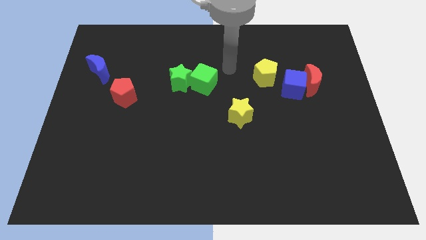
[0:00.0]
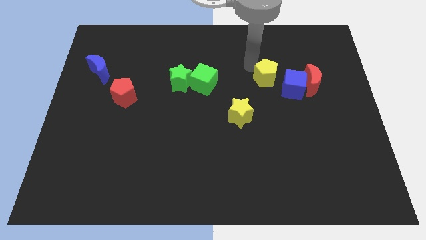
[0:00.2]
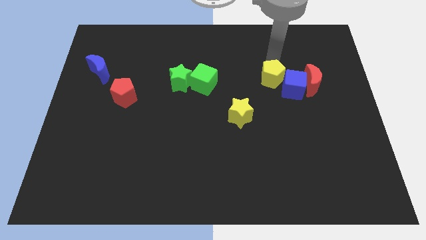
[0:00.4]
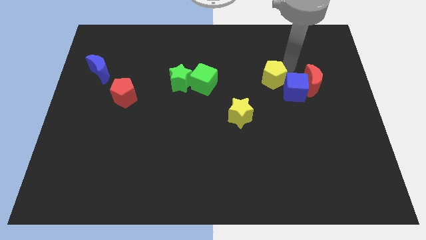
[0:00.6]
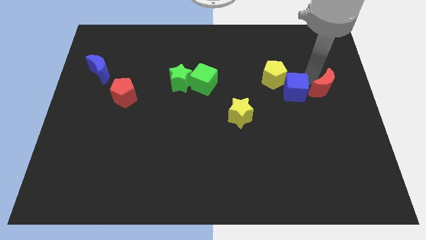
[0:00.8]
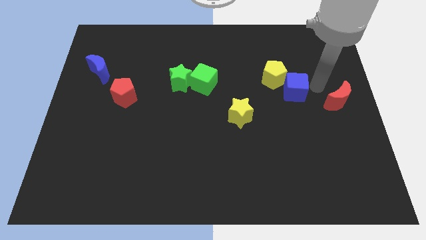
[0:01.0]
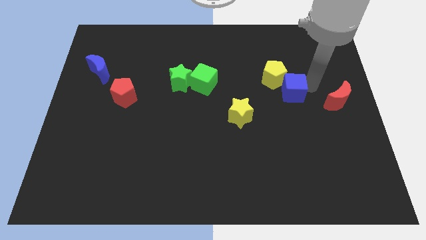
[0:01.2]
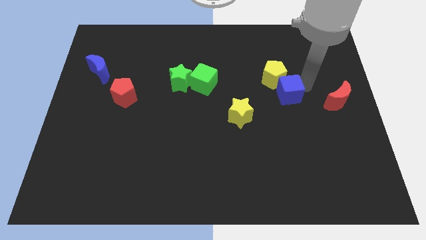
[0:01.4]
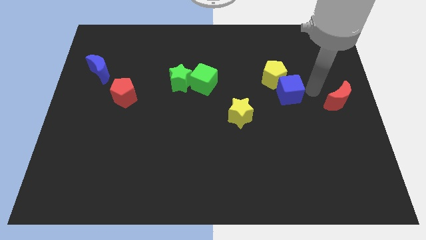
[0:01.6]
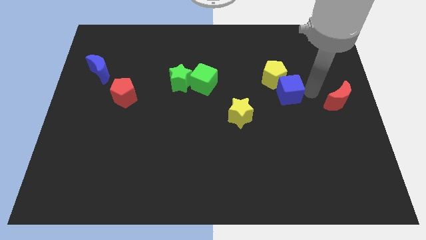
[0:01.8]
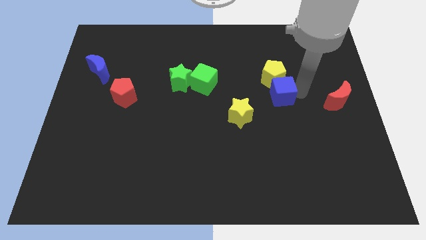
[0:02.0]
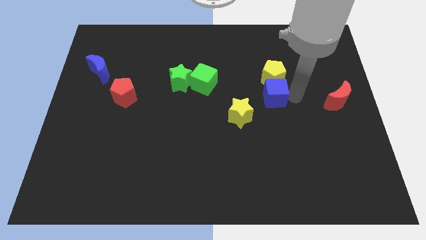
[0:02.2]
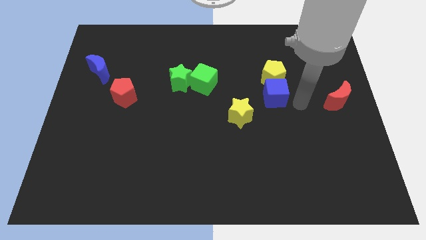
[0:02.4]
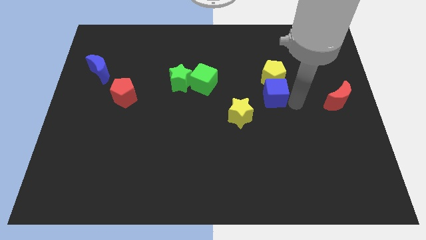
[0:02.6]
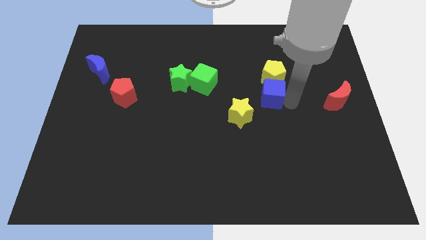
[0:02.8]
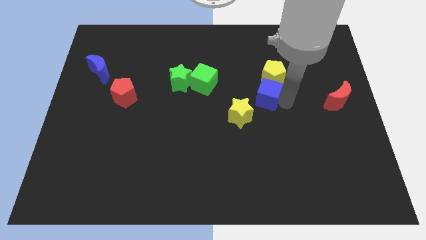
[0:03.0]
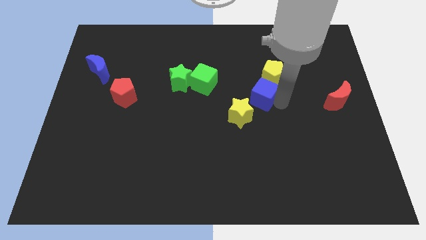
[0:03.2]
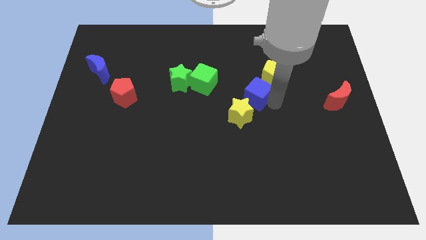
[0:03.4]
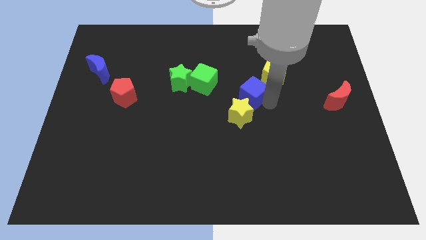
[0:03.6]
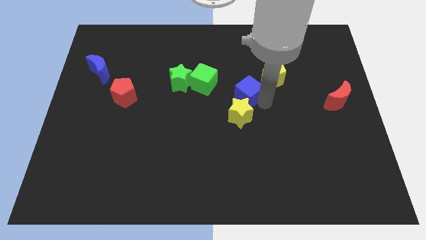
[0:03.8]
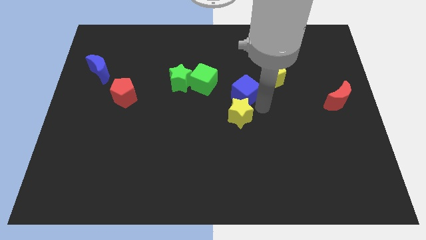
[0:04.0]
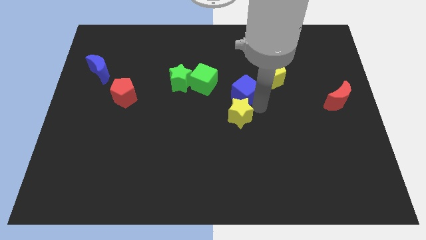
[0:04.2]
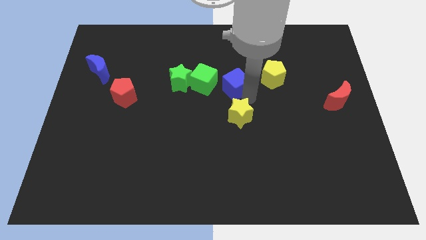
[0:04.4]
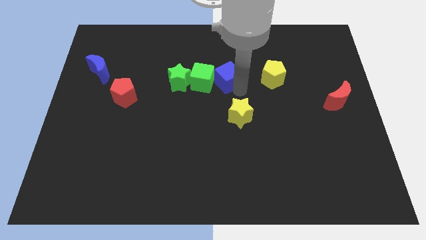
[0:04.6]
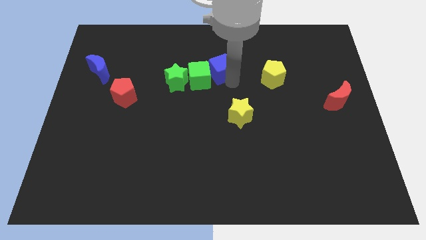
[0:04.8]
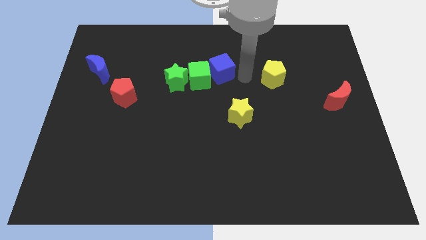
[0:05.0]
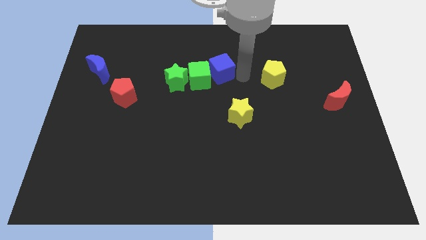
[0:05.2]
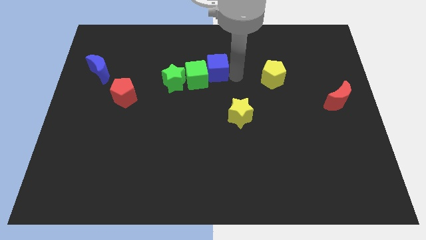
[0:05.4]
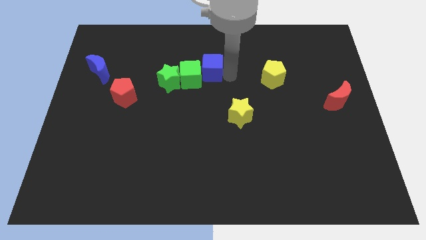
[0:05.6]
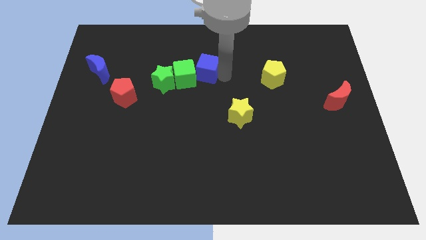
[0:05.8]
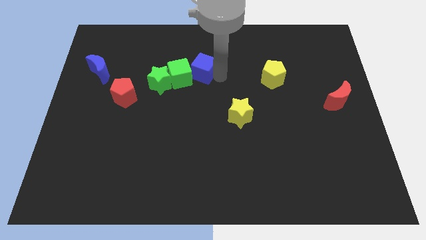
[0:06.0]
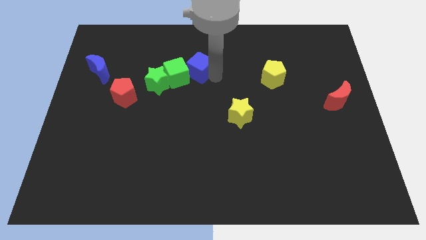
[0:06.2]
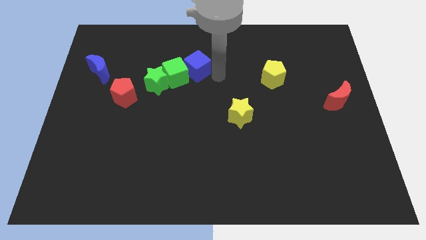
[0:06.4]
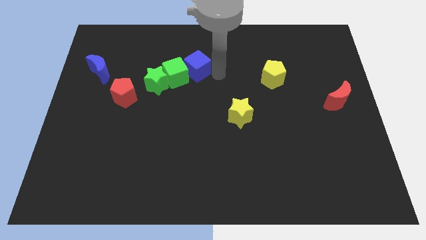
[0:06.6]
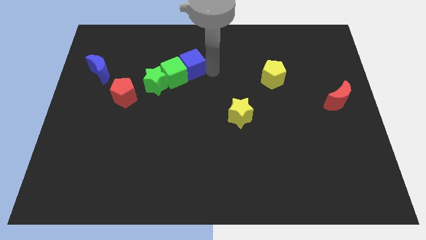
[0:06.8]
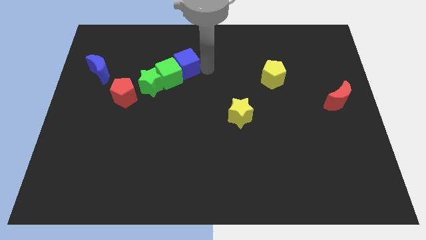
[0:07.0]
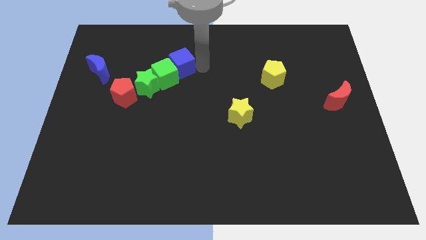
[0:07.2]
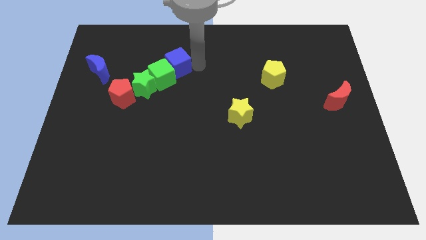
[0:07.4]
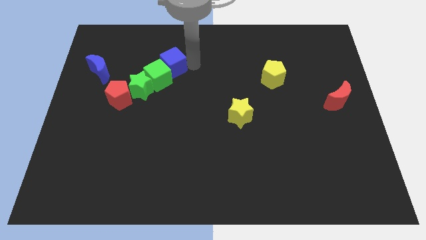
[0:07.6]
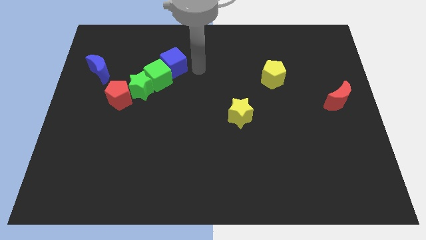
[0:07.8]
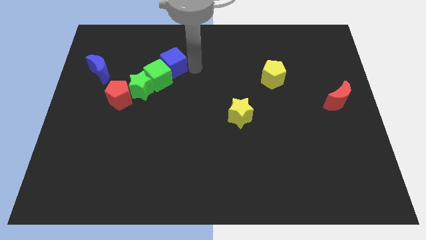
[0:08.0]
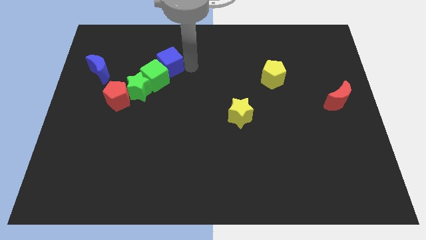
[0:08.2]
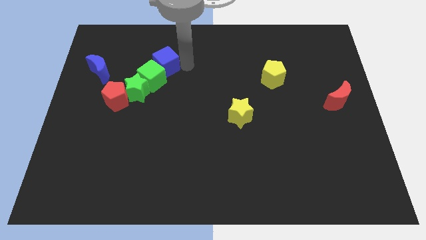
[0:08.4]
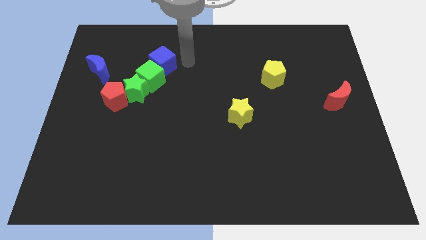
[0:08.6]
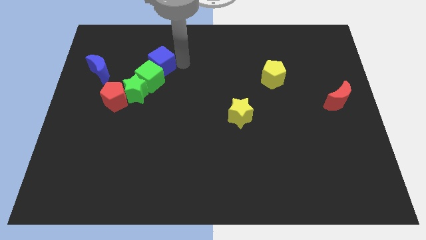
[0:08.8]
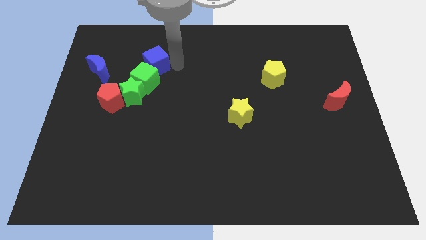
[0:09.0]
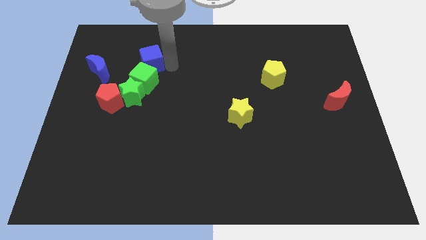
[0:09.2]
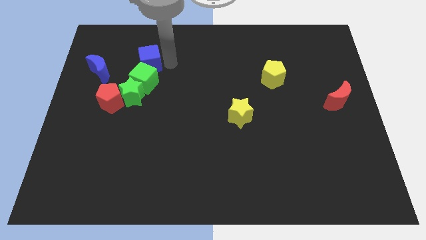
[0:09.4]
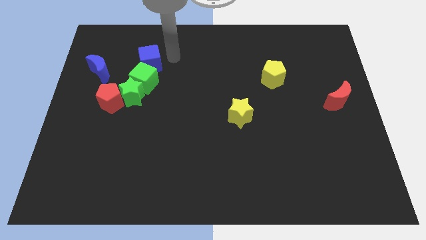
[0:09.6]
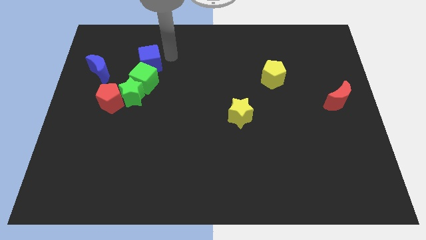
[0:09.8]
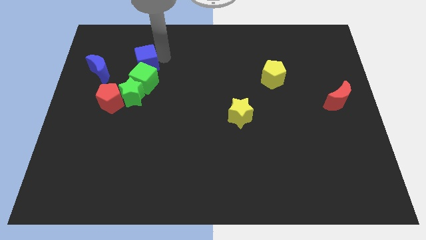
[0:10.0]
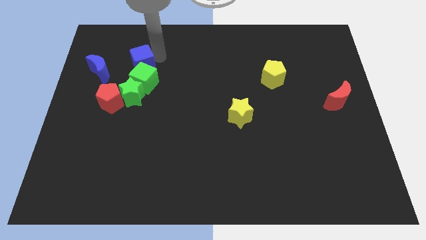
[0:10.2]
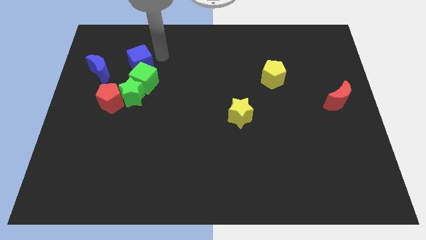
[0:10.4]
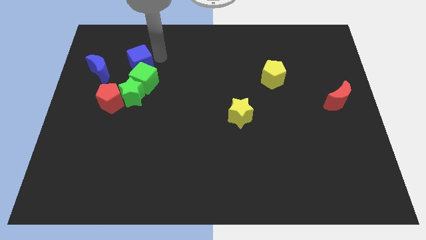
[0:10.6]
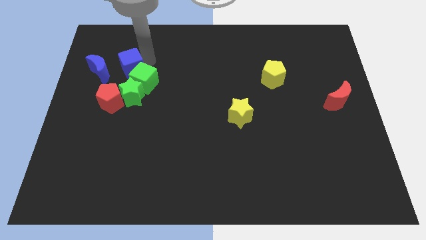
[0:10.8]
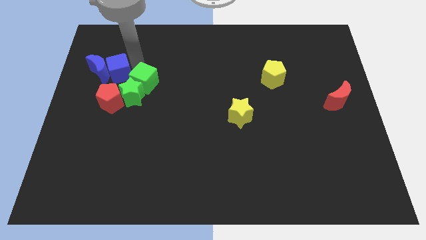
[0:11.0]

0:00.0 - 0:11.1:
push the blue cube to the blue moon

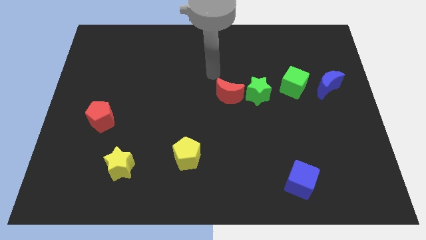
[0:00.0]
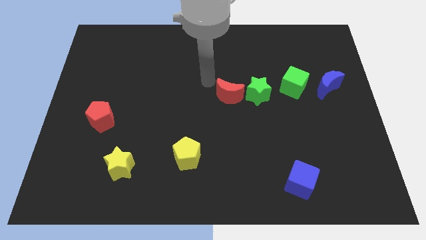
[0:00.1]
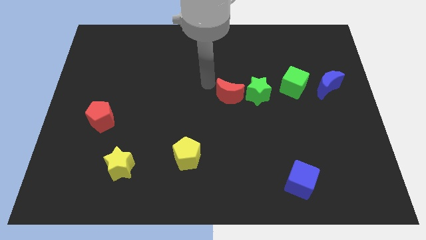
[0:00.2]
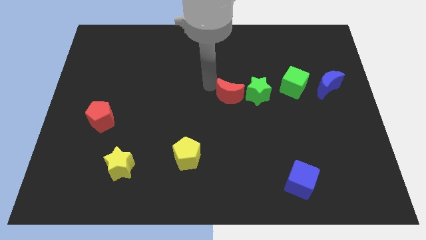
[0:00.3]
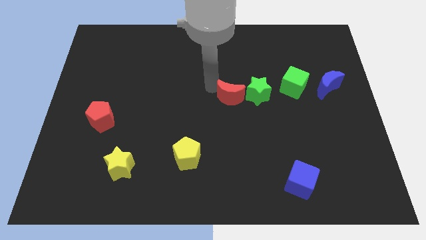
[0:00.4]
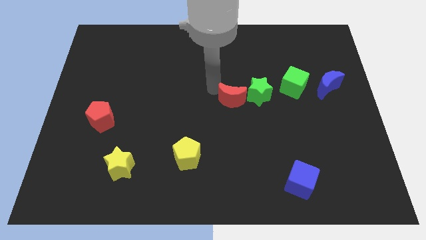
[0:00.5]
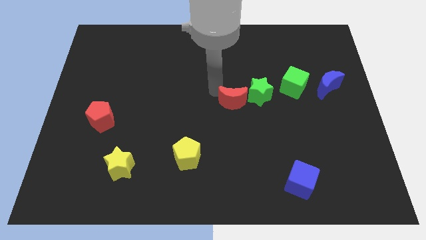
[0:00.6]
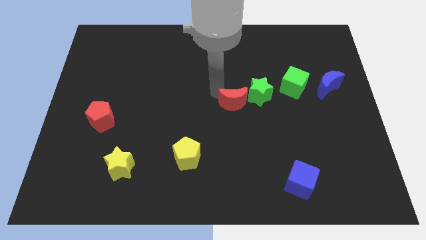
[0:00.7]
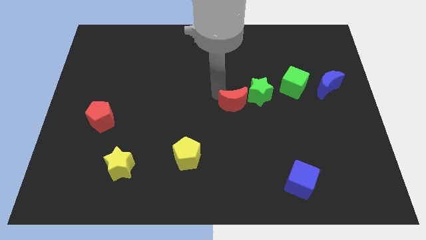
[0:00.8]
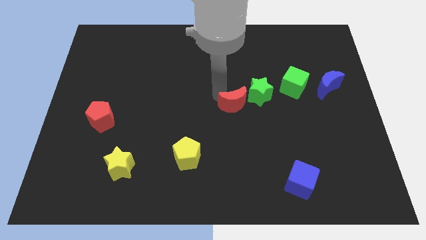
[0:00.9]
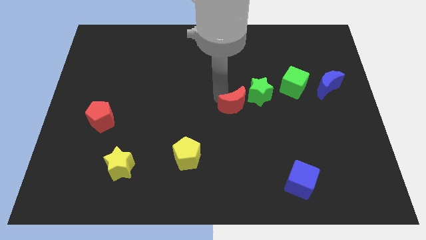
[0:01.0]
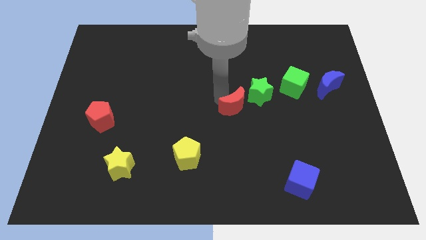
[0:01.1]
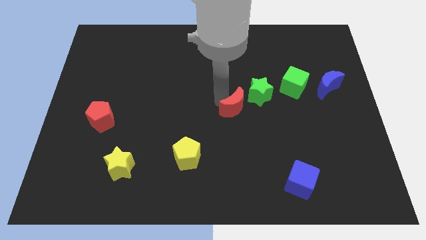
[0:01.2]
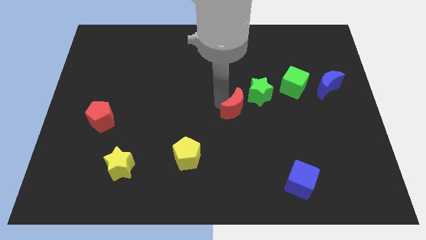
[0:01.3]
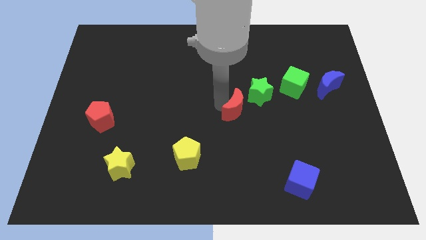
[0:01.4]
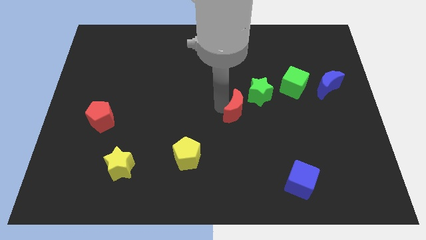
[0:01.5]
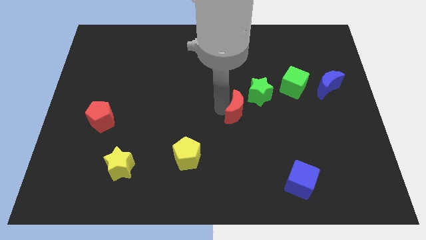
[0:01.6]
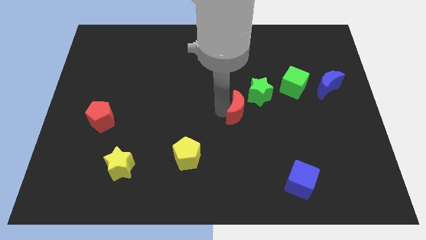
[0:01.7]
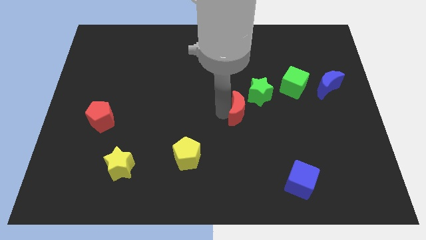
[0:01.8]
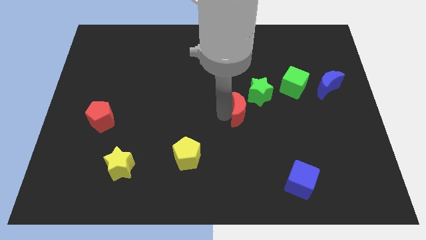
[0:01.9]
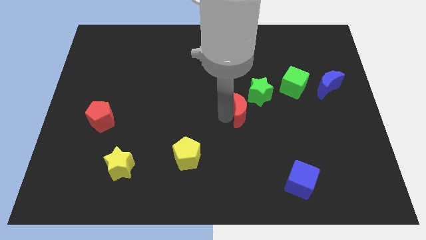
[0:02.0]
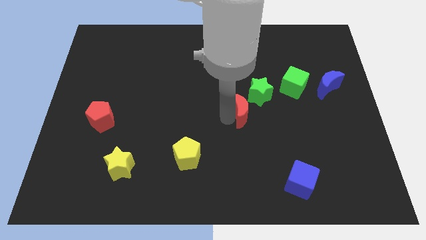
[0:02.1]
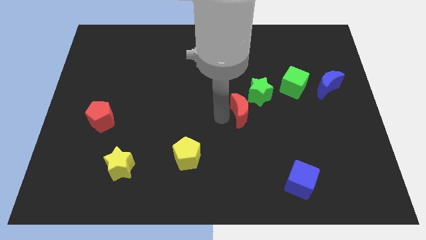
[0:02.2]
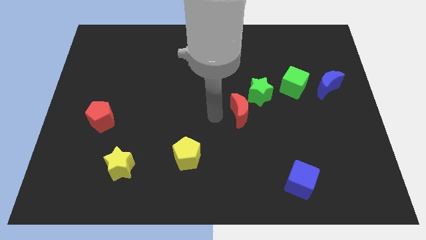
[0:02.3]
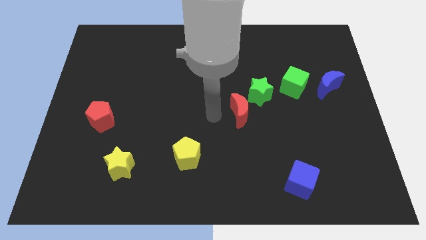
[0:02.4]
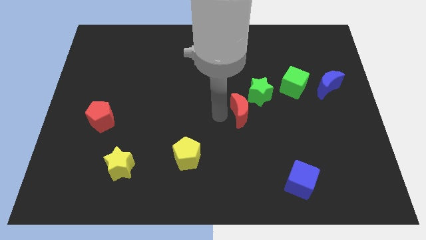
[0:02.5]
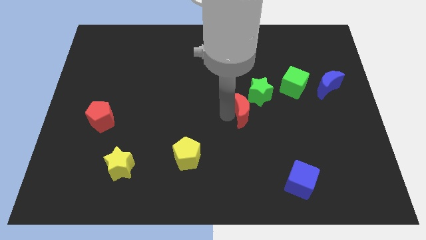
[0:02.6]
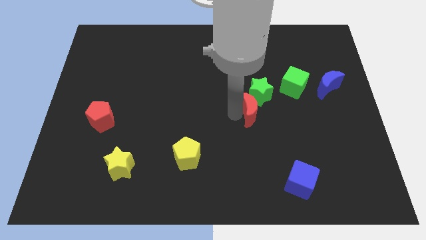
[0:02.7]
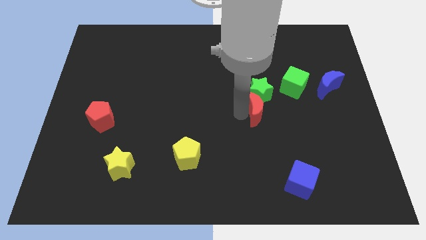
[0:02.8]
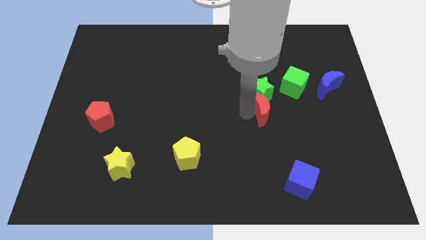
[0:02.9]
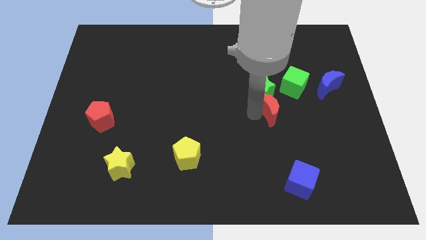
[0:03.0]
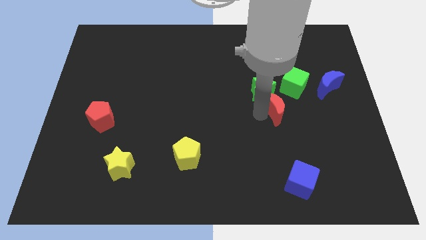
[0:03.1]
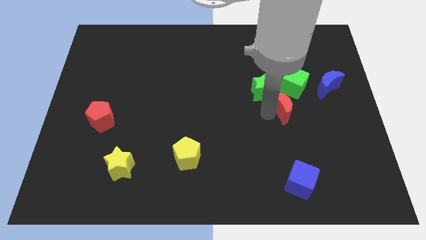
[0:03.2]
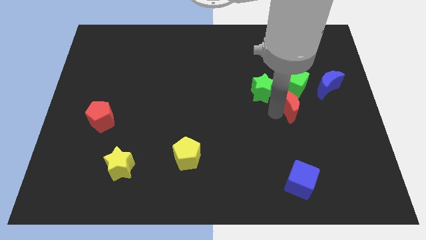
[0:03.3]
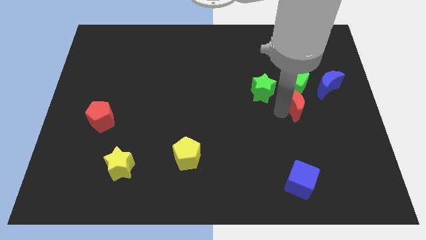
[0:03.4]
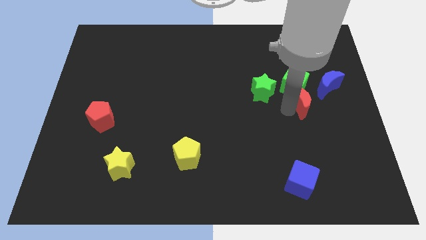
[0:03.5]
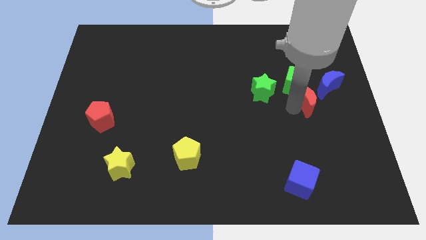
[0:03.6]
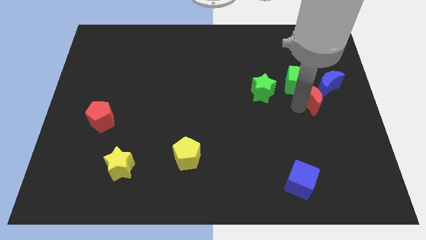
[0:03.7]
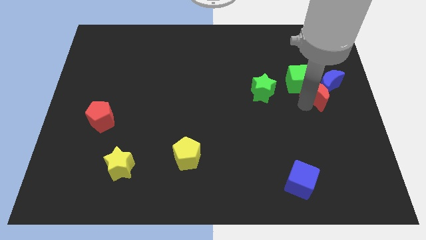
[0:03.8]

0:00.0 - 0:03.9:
move the red moon next to the blue moon
